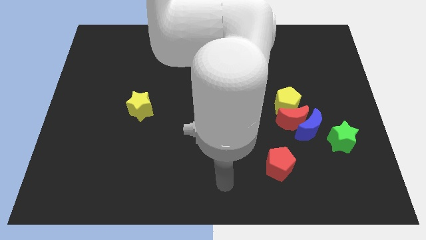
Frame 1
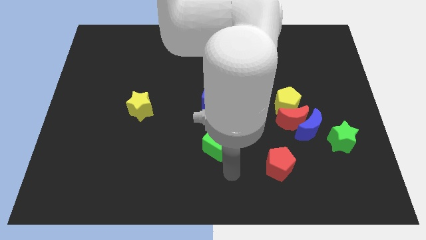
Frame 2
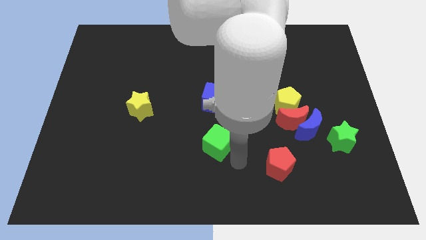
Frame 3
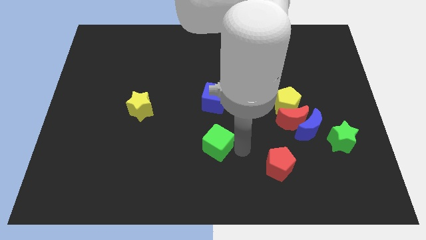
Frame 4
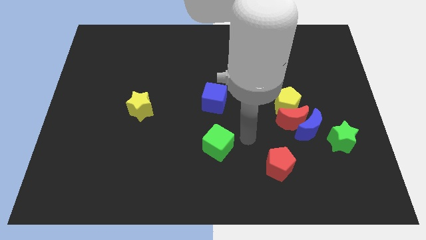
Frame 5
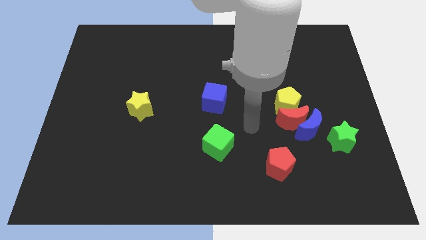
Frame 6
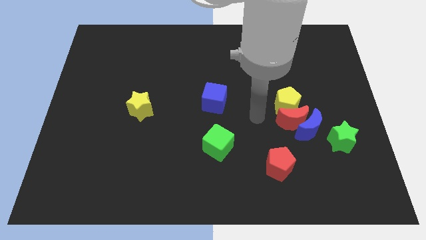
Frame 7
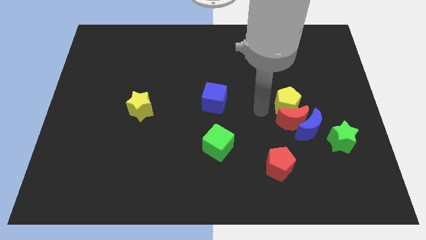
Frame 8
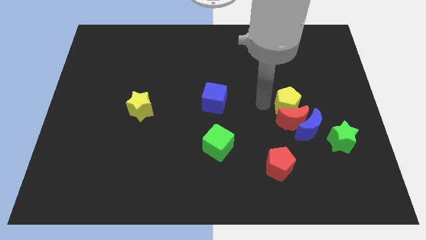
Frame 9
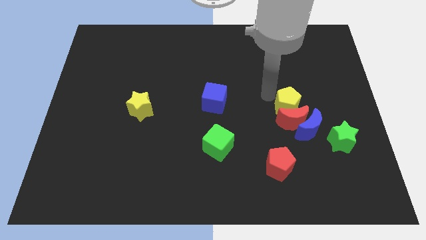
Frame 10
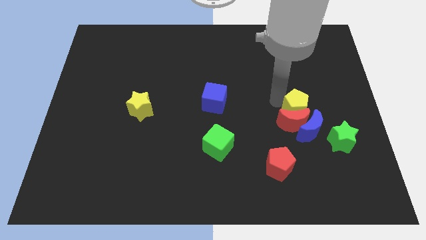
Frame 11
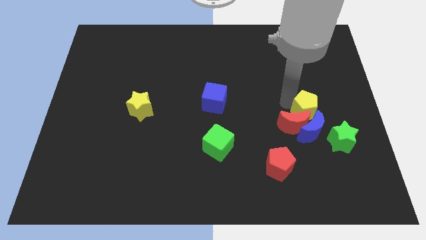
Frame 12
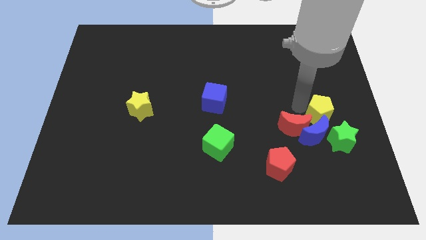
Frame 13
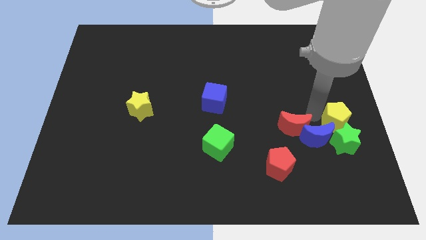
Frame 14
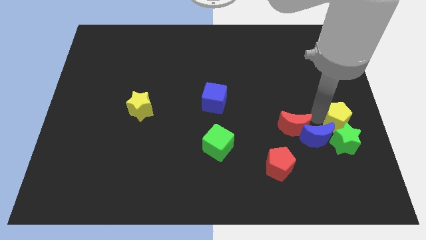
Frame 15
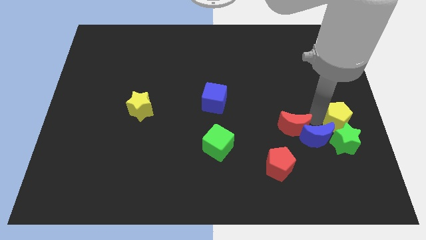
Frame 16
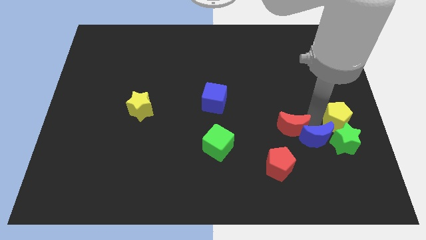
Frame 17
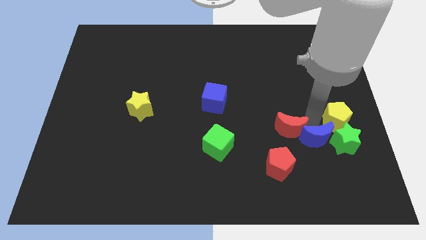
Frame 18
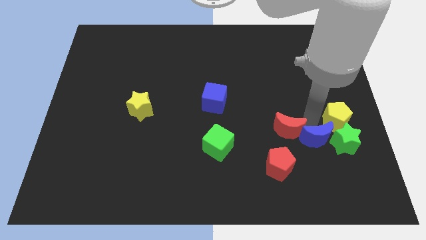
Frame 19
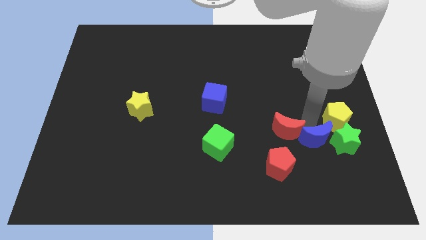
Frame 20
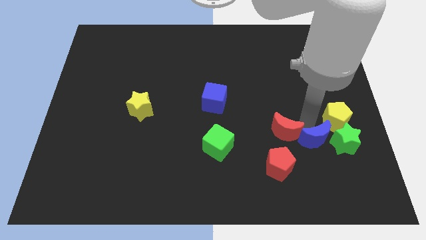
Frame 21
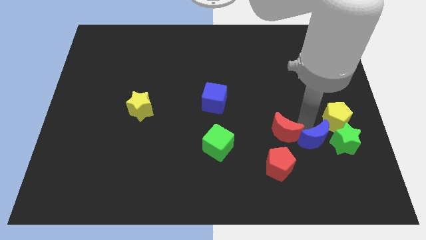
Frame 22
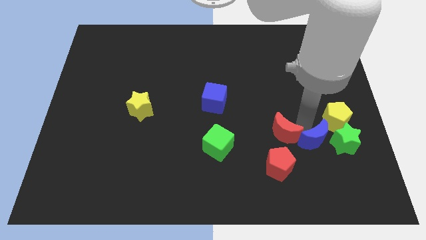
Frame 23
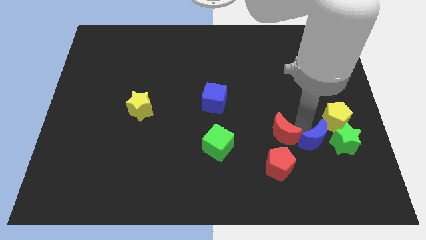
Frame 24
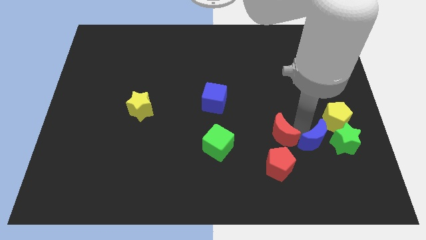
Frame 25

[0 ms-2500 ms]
move the red moon away from the blue moon and yellow pentagon

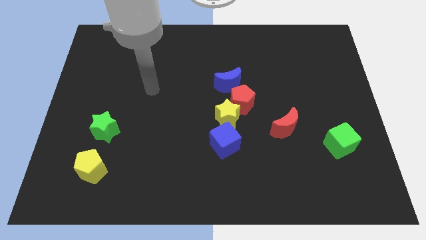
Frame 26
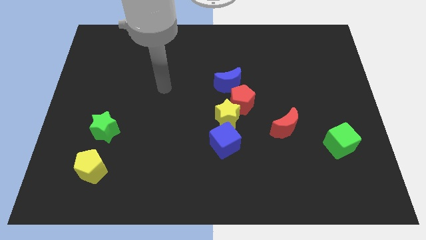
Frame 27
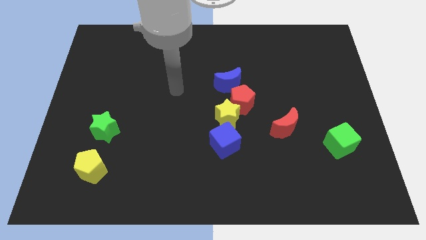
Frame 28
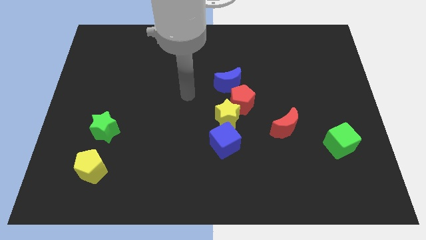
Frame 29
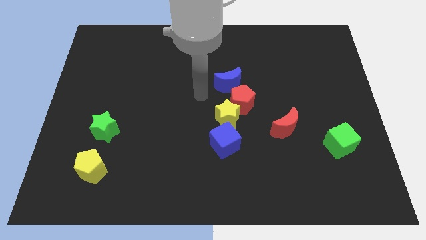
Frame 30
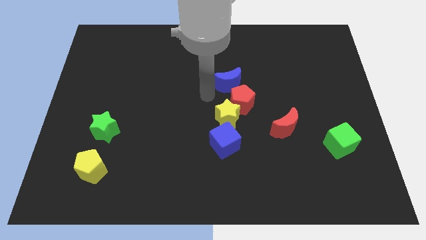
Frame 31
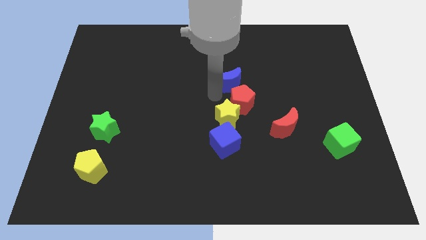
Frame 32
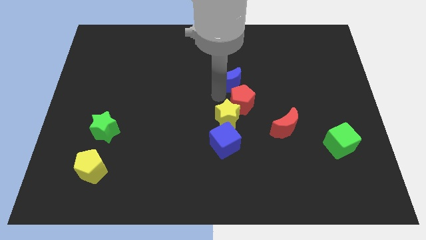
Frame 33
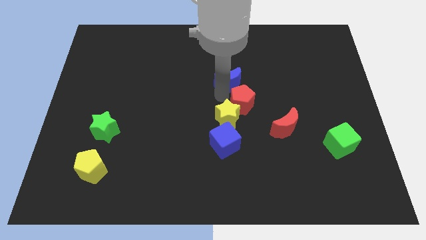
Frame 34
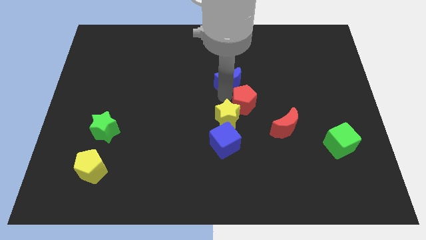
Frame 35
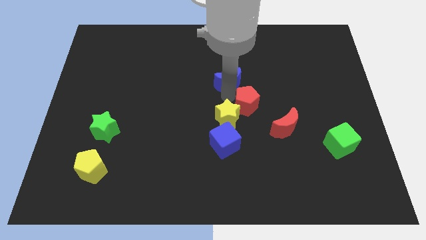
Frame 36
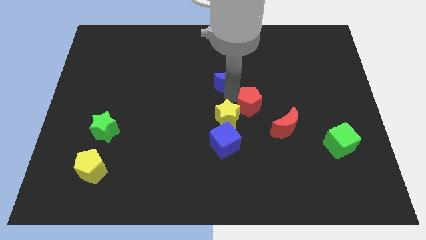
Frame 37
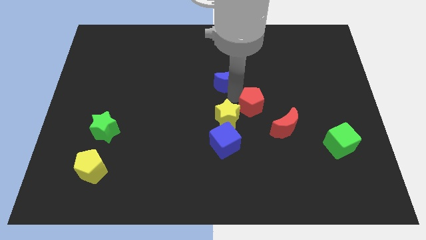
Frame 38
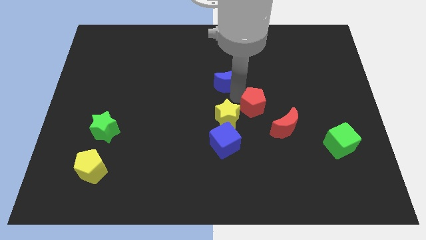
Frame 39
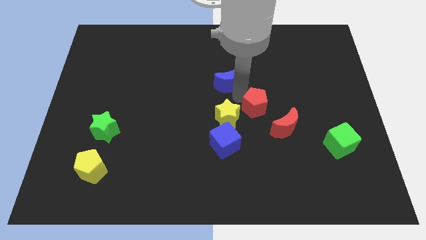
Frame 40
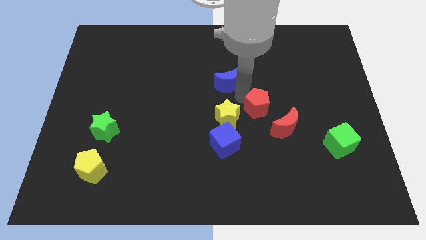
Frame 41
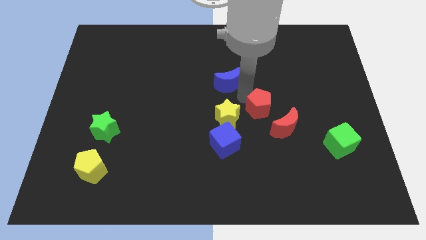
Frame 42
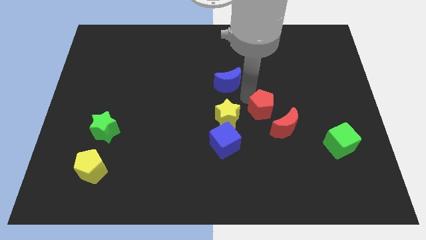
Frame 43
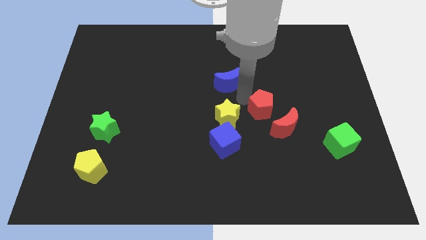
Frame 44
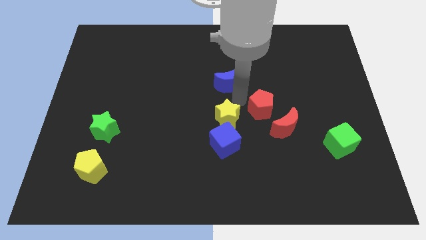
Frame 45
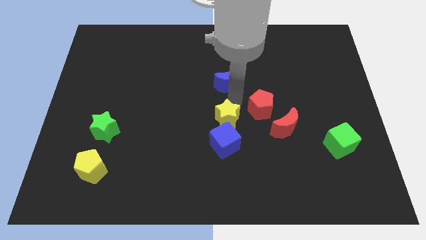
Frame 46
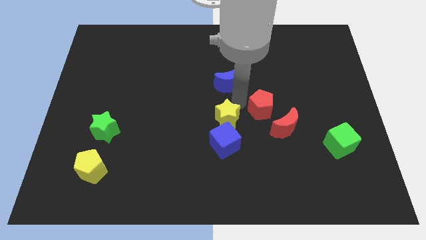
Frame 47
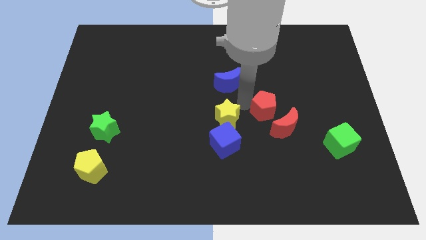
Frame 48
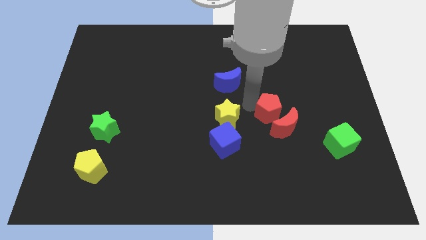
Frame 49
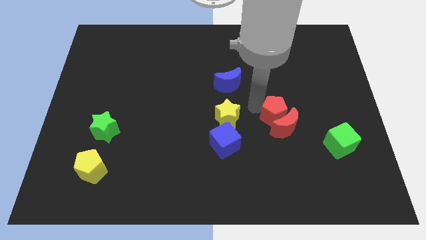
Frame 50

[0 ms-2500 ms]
move the red pentagon away from the yellow star and blue moon

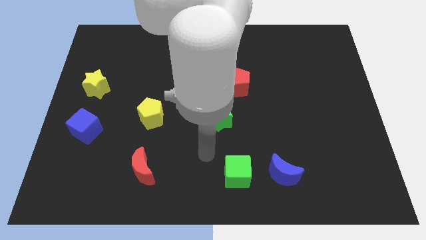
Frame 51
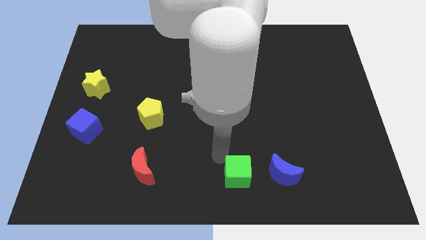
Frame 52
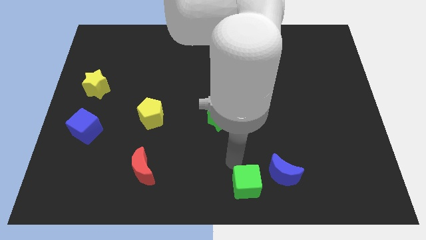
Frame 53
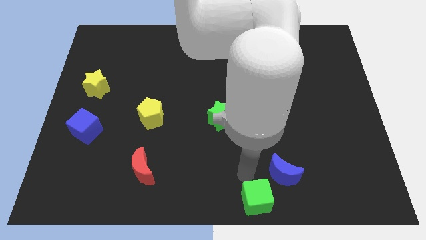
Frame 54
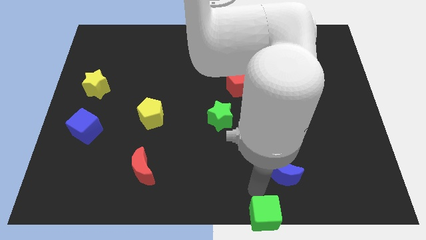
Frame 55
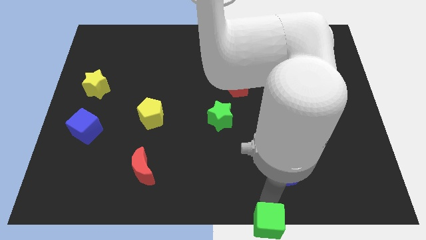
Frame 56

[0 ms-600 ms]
move the blue moon away from the green cube

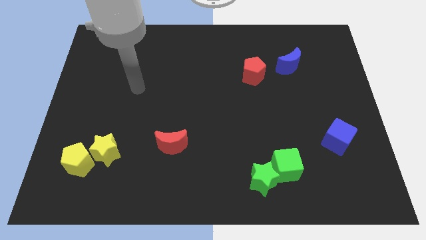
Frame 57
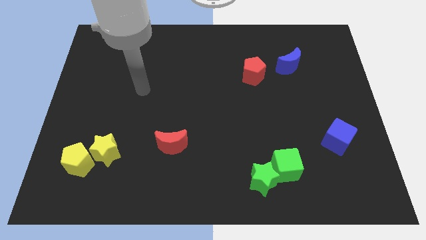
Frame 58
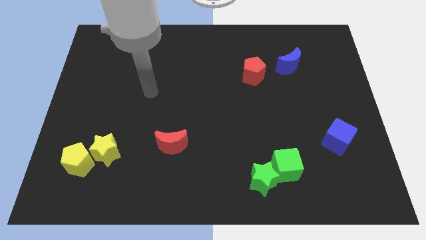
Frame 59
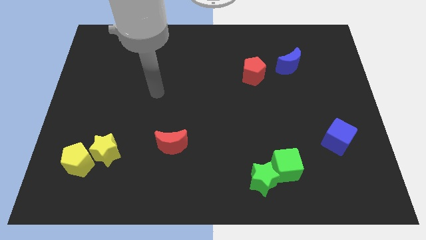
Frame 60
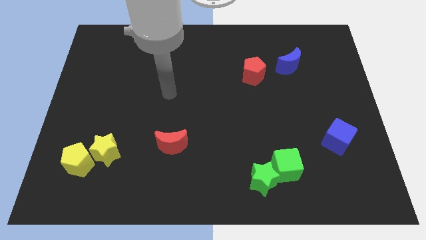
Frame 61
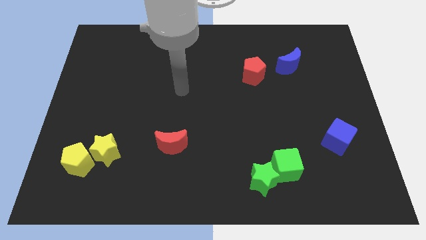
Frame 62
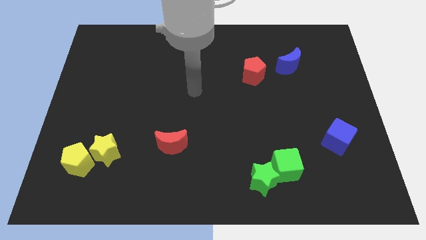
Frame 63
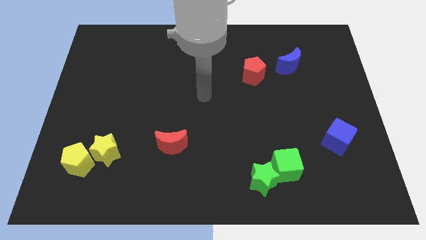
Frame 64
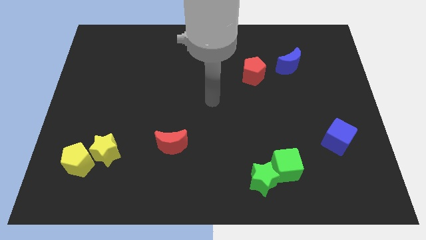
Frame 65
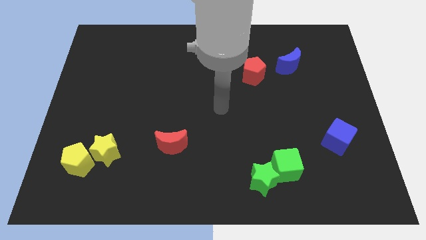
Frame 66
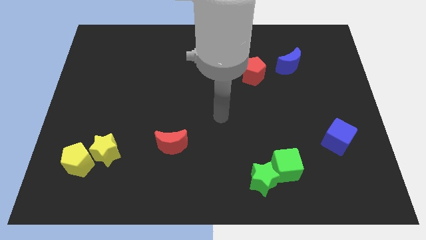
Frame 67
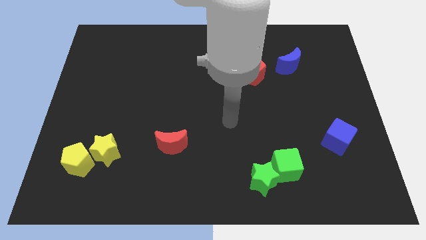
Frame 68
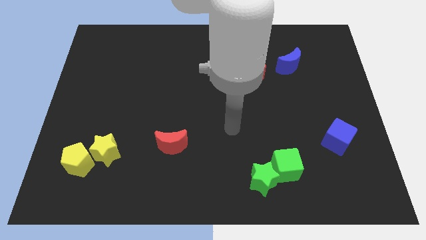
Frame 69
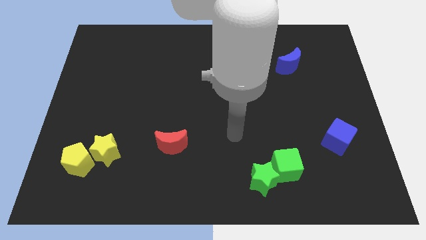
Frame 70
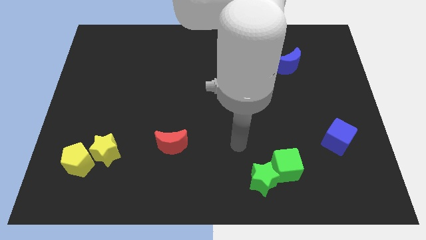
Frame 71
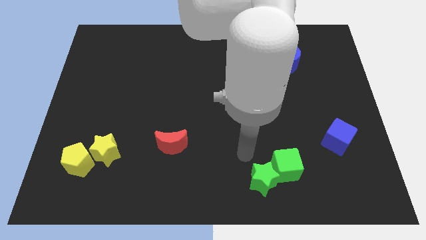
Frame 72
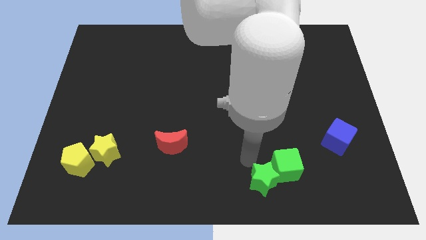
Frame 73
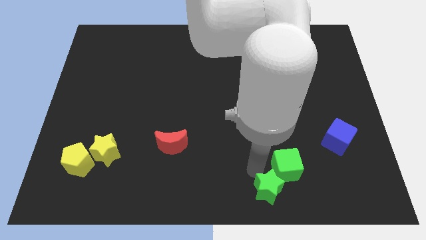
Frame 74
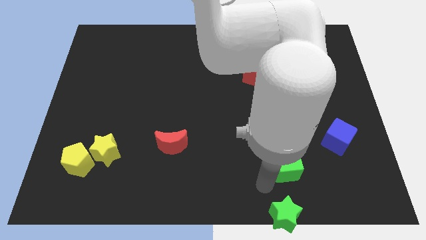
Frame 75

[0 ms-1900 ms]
separate the green cube from the green star

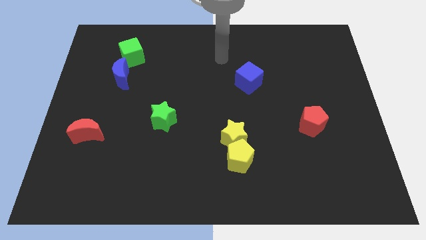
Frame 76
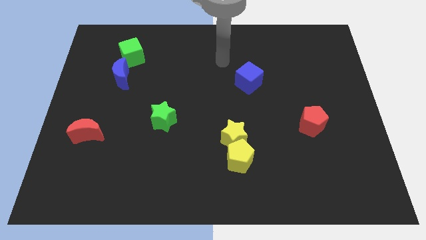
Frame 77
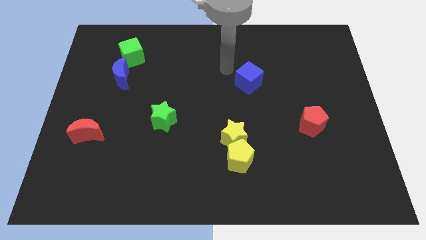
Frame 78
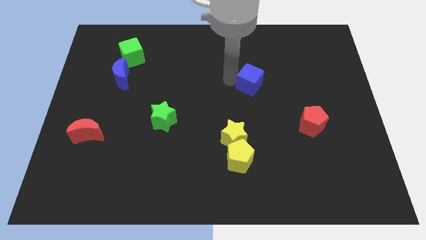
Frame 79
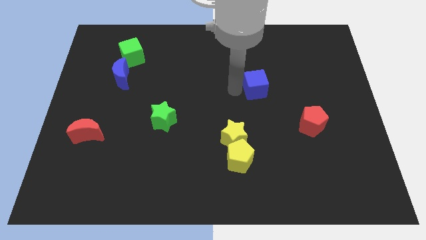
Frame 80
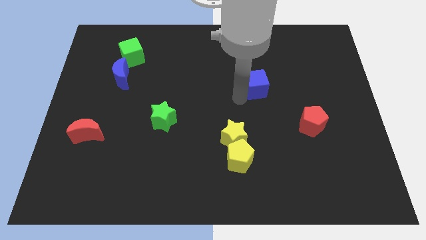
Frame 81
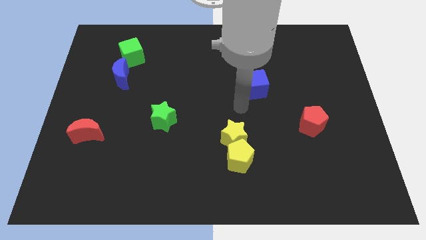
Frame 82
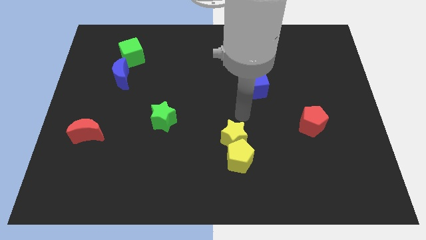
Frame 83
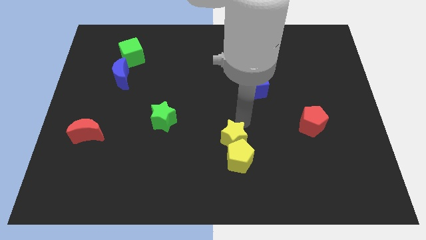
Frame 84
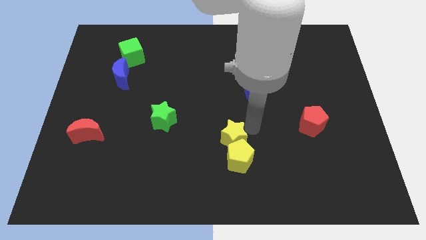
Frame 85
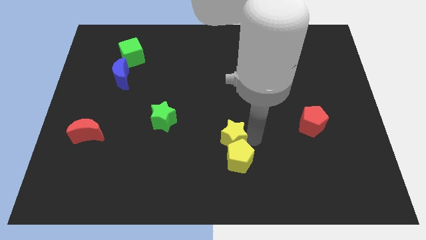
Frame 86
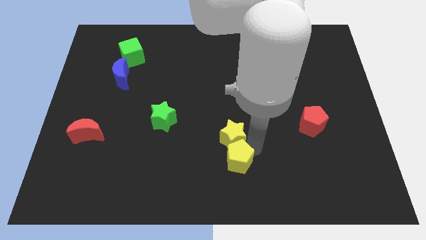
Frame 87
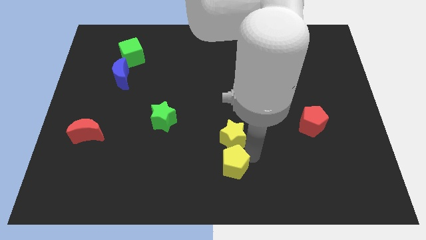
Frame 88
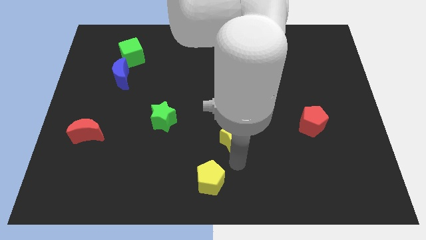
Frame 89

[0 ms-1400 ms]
move the yellow star away from the yellow pentagon

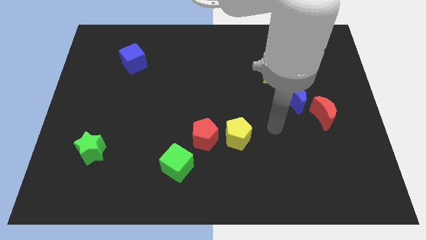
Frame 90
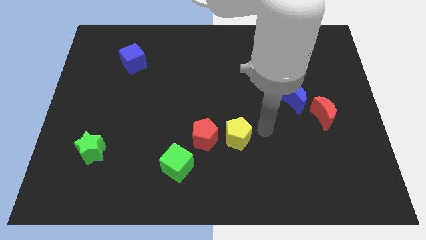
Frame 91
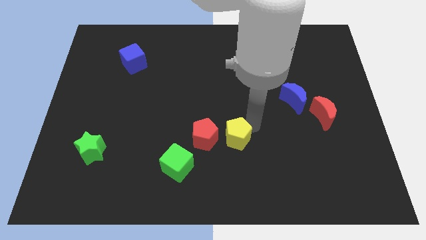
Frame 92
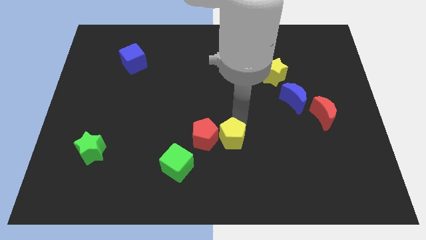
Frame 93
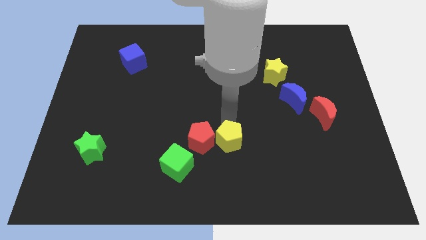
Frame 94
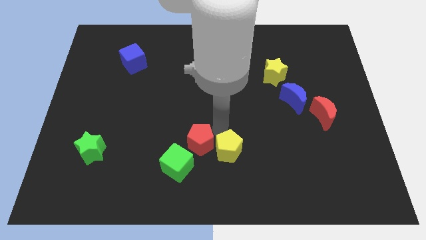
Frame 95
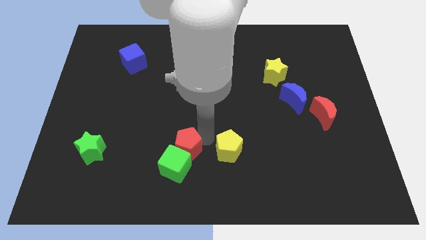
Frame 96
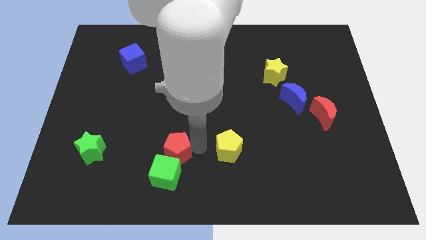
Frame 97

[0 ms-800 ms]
separate the yellow pentagon from the red pentagon
